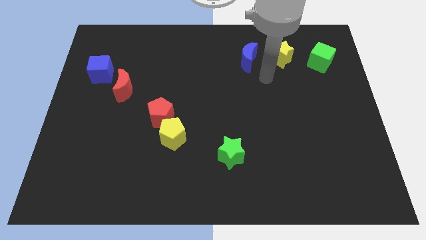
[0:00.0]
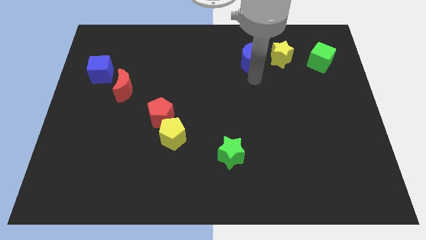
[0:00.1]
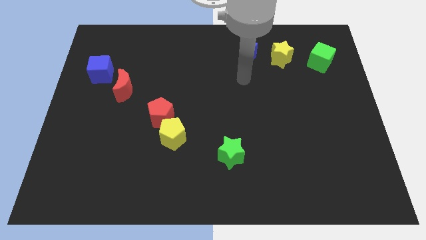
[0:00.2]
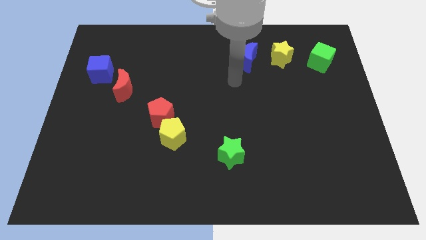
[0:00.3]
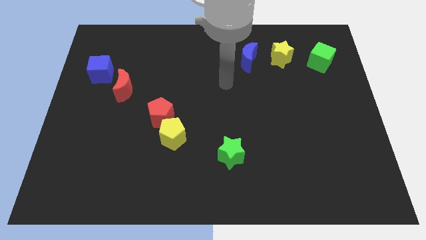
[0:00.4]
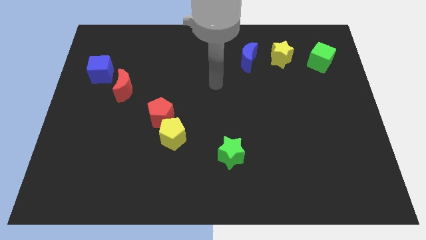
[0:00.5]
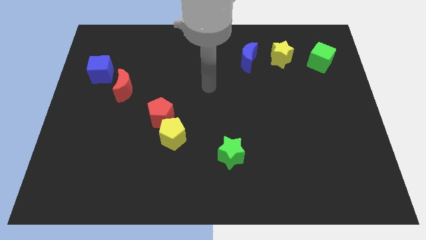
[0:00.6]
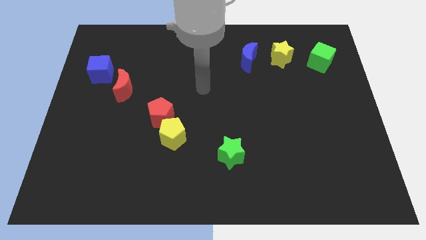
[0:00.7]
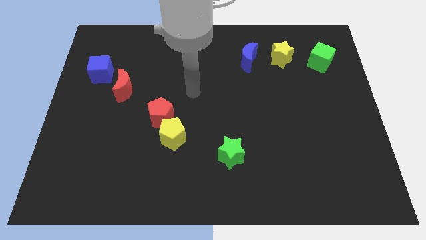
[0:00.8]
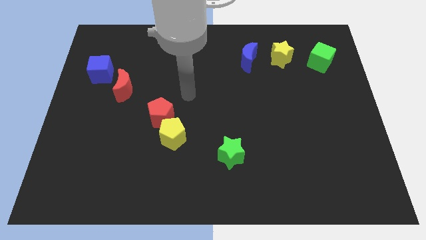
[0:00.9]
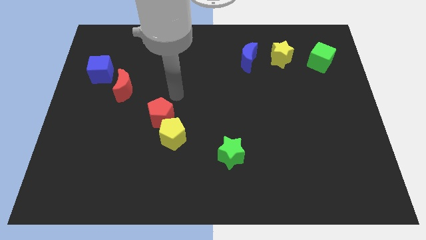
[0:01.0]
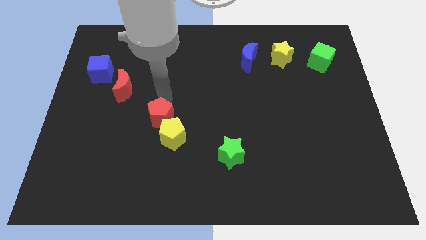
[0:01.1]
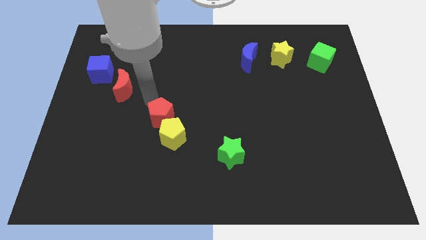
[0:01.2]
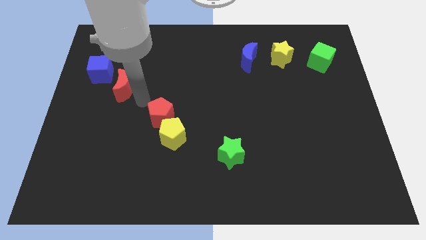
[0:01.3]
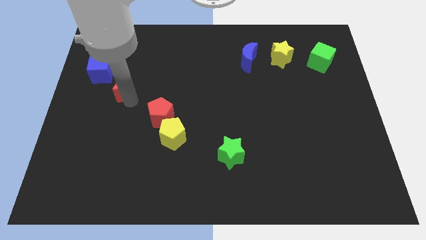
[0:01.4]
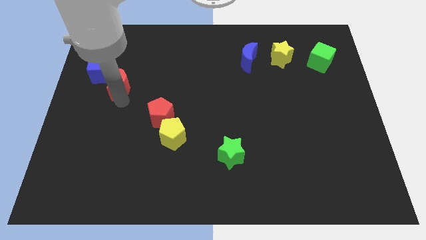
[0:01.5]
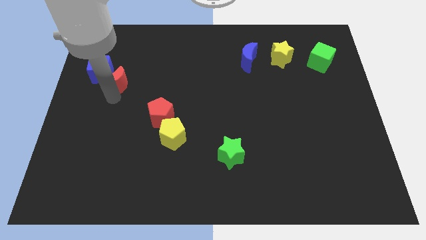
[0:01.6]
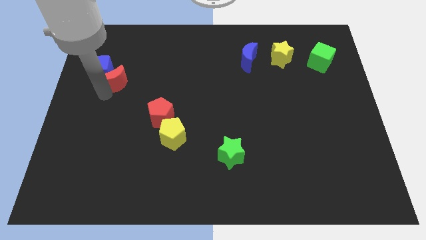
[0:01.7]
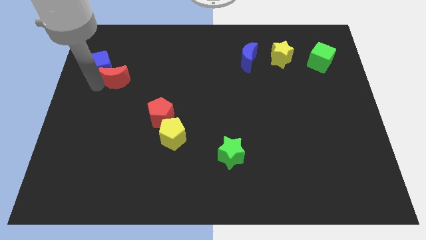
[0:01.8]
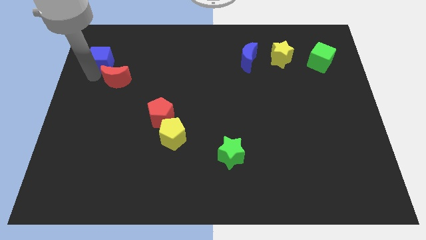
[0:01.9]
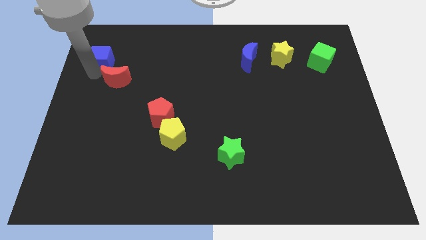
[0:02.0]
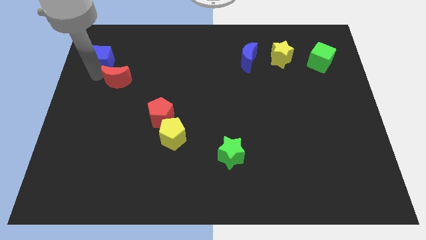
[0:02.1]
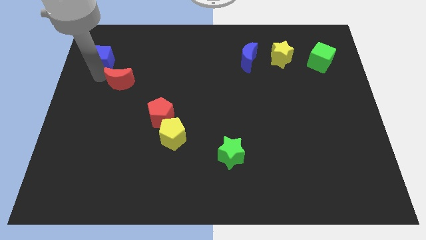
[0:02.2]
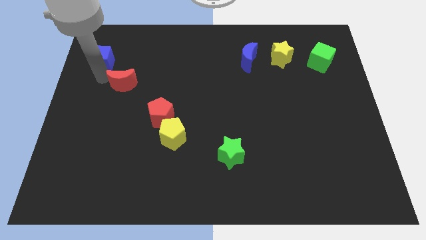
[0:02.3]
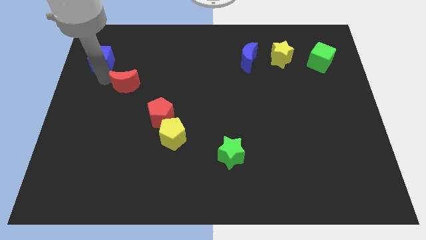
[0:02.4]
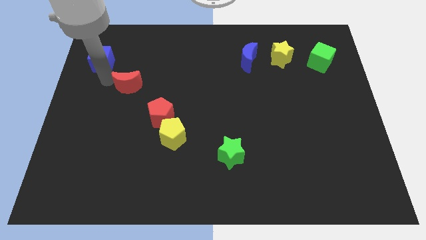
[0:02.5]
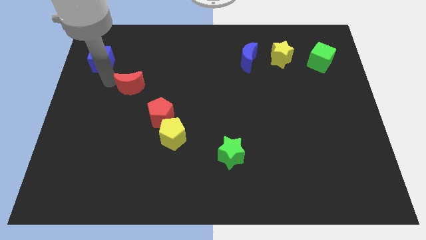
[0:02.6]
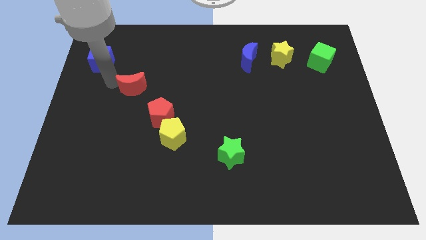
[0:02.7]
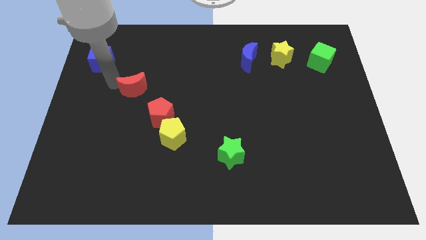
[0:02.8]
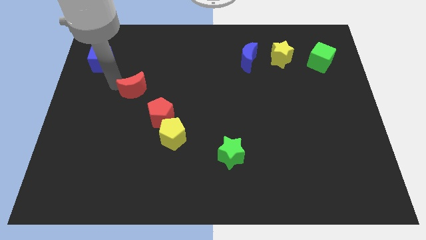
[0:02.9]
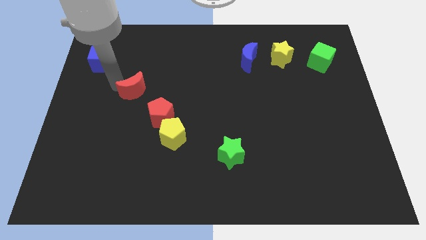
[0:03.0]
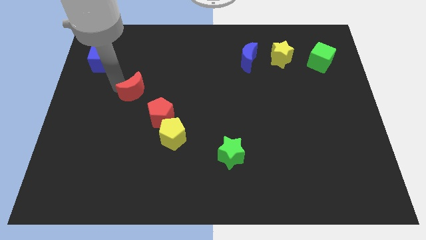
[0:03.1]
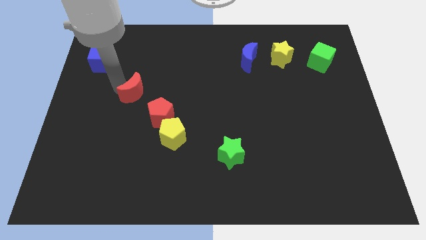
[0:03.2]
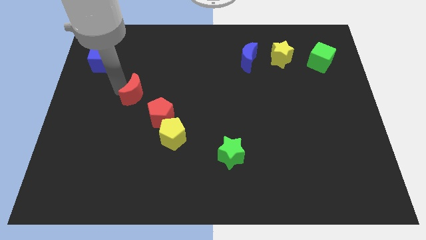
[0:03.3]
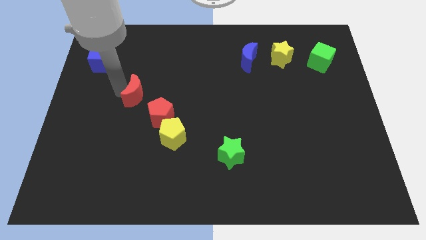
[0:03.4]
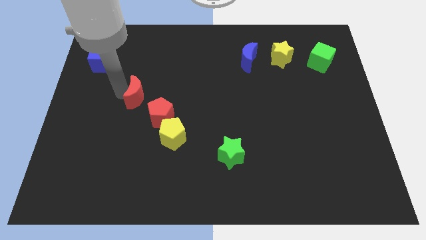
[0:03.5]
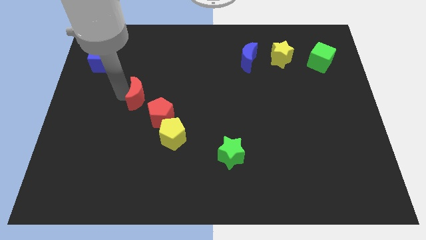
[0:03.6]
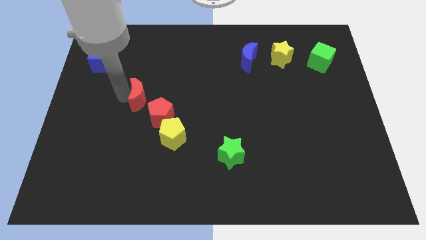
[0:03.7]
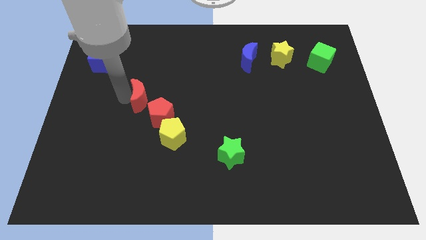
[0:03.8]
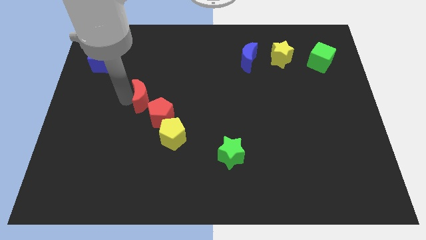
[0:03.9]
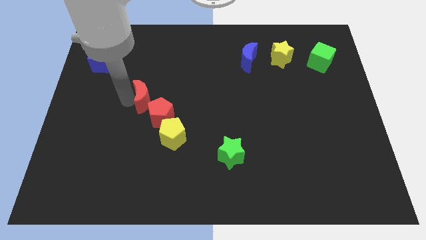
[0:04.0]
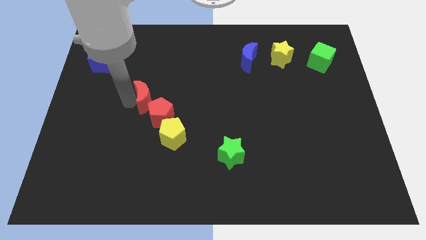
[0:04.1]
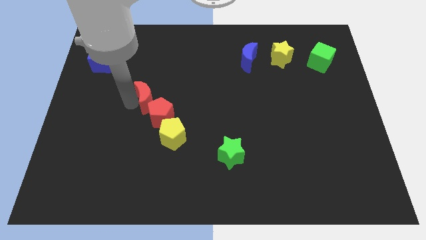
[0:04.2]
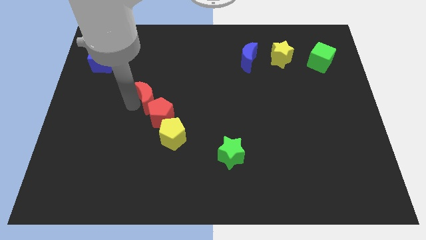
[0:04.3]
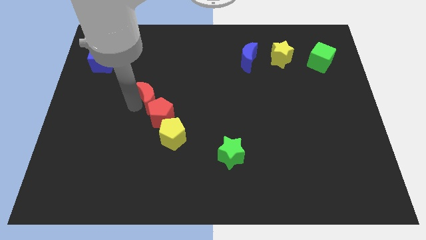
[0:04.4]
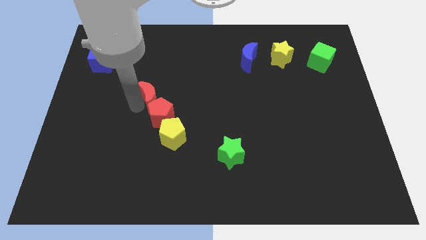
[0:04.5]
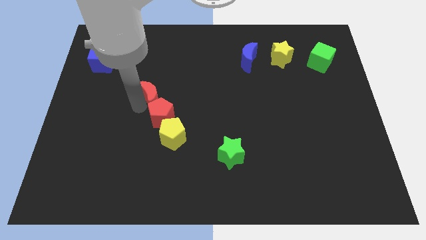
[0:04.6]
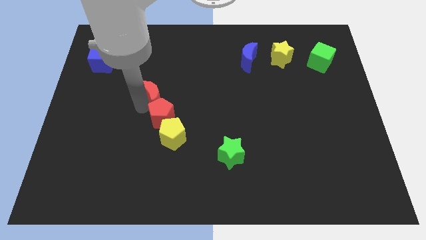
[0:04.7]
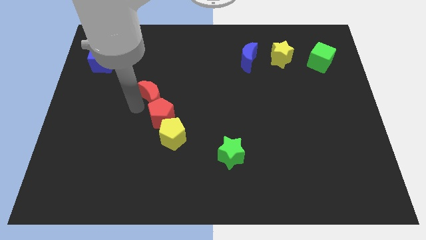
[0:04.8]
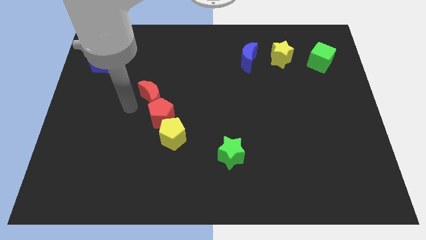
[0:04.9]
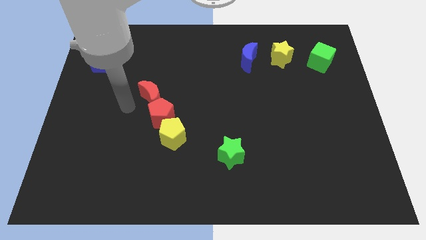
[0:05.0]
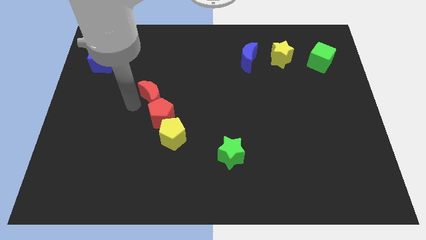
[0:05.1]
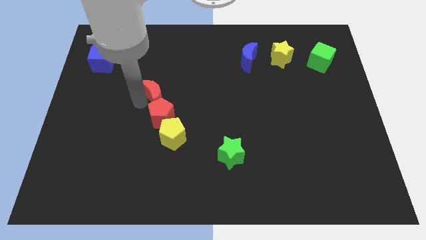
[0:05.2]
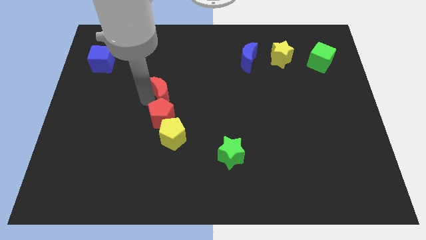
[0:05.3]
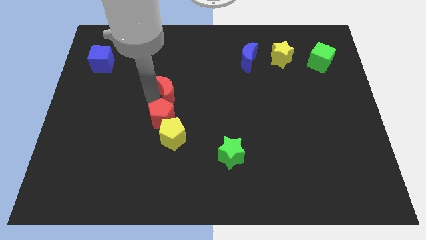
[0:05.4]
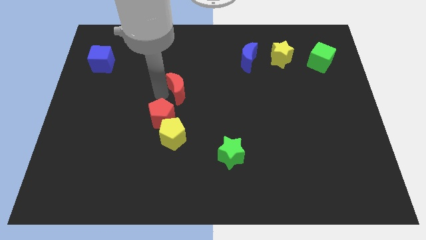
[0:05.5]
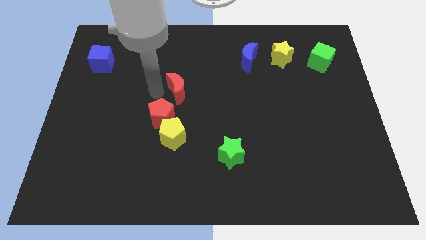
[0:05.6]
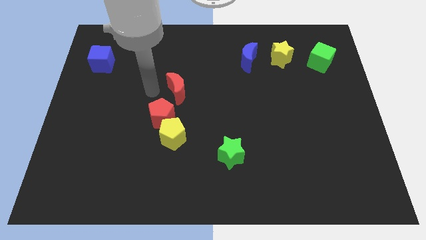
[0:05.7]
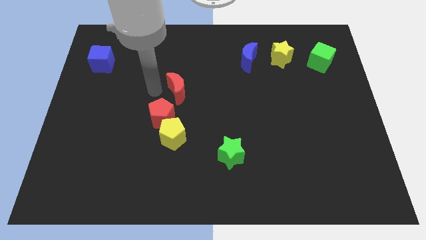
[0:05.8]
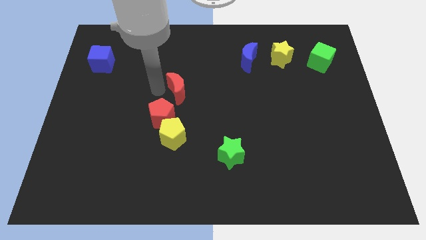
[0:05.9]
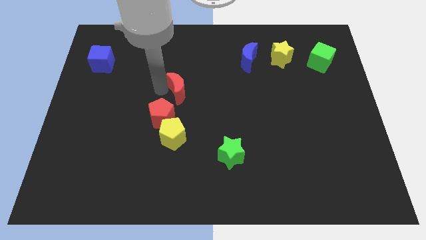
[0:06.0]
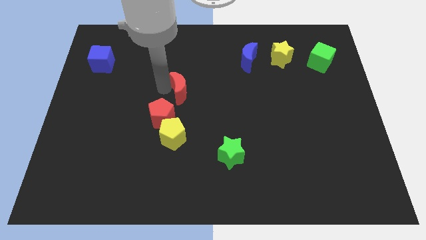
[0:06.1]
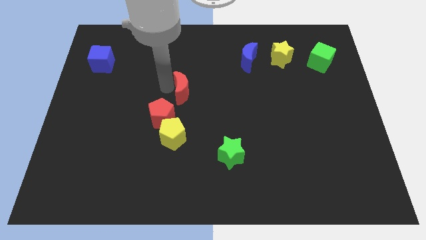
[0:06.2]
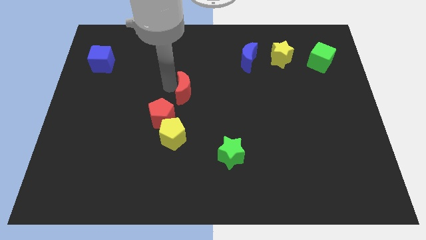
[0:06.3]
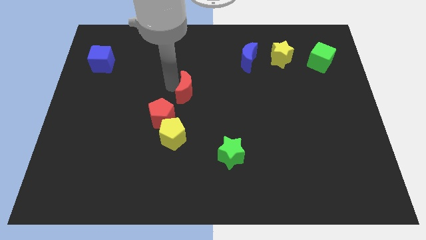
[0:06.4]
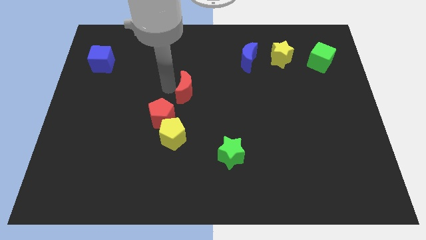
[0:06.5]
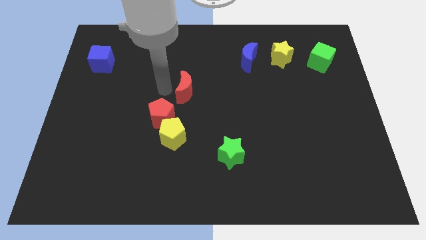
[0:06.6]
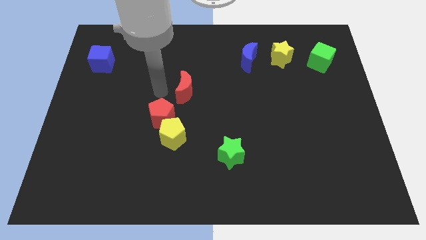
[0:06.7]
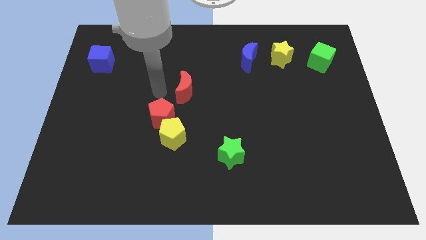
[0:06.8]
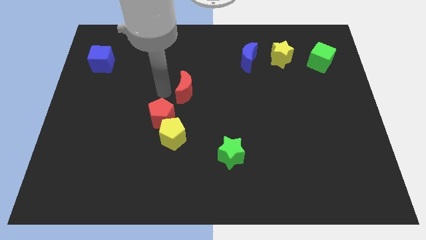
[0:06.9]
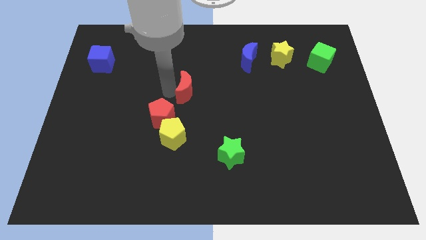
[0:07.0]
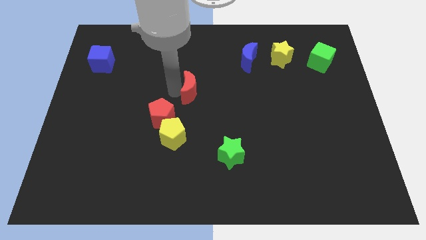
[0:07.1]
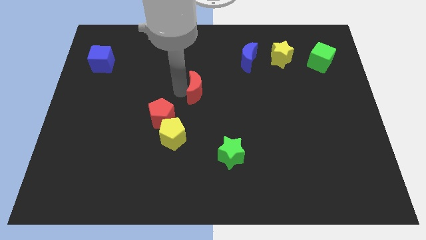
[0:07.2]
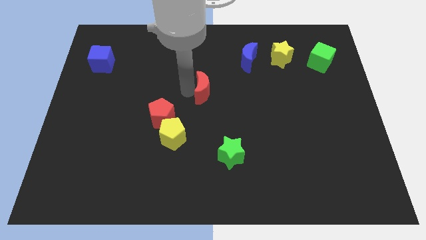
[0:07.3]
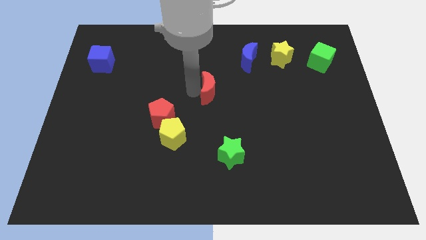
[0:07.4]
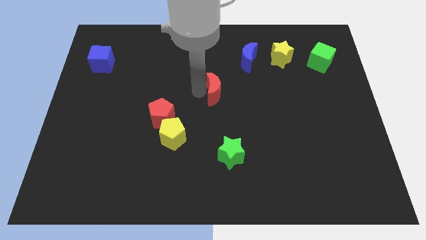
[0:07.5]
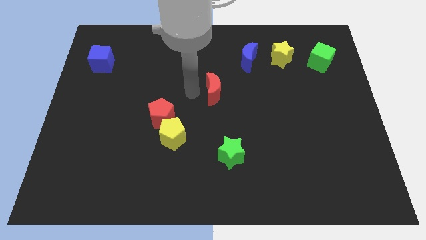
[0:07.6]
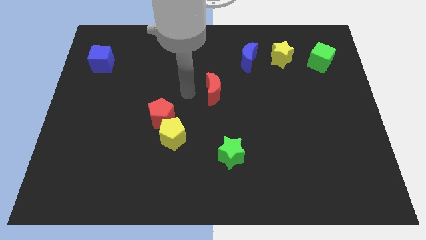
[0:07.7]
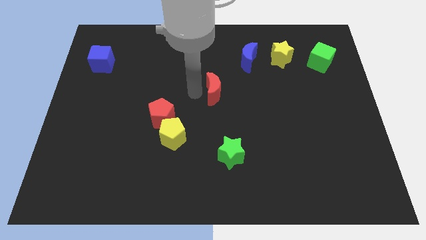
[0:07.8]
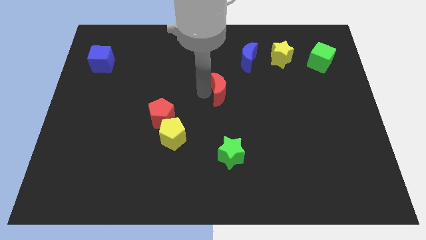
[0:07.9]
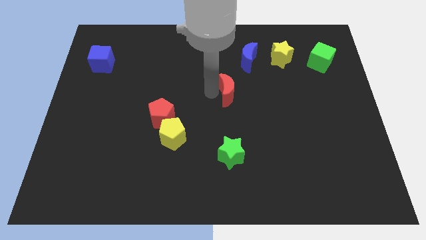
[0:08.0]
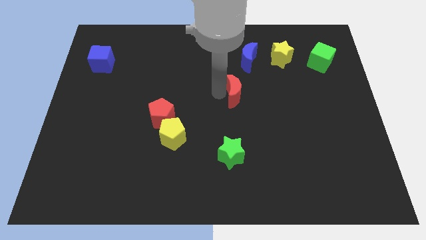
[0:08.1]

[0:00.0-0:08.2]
move the red moon to the bottom of the blue moon
